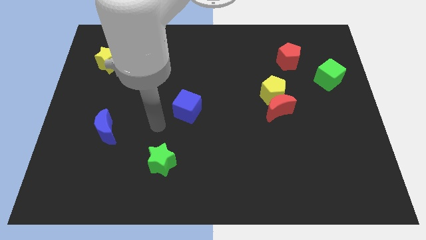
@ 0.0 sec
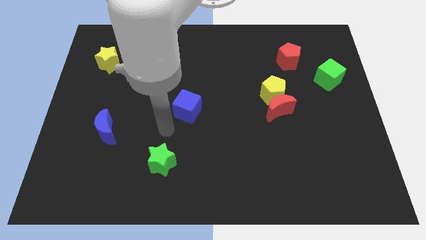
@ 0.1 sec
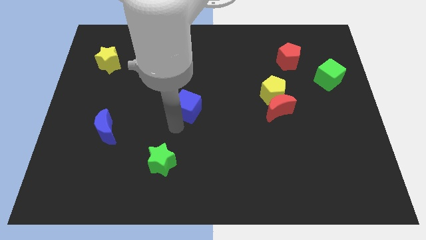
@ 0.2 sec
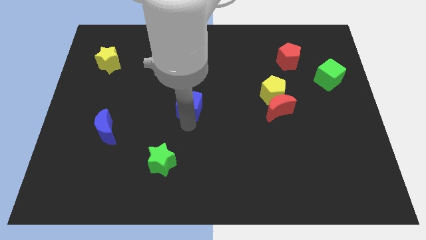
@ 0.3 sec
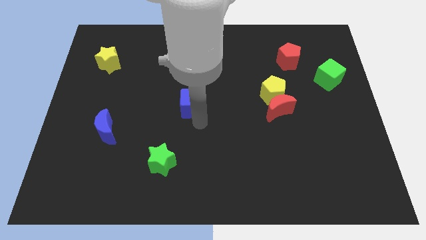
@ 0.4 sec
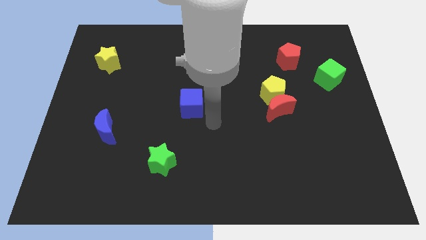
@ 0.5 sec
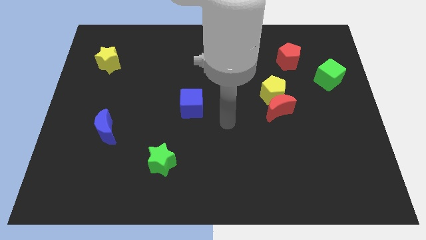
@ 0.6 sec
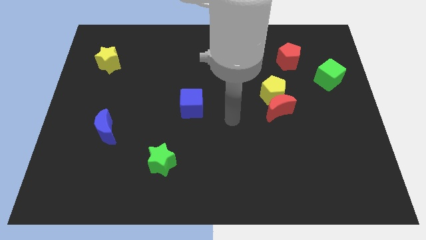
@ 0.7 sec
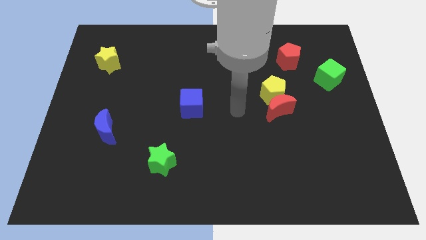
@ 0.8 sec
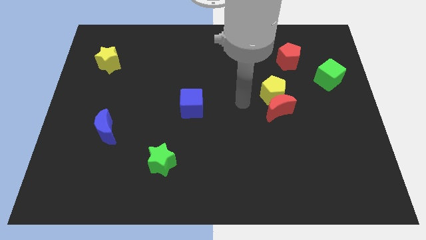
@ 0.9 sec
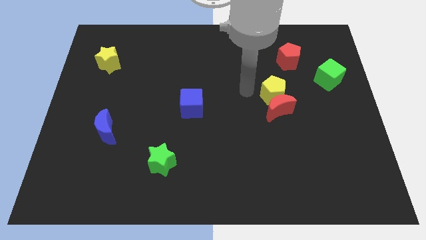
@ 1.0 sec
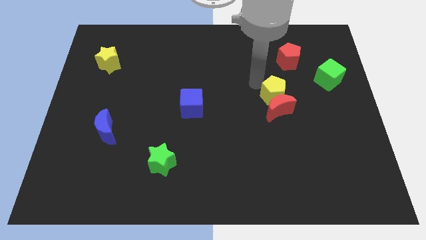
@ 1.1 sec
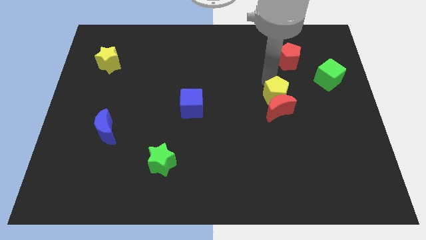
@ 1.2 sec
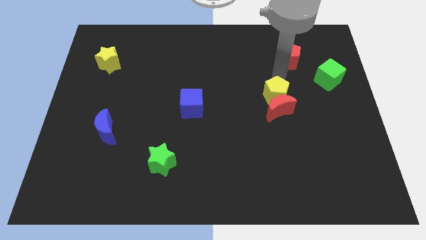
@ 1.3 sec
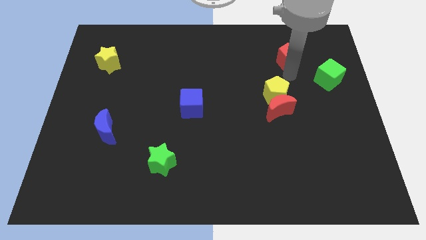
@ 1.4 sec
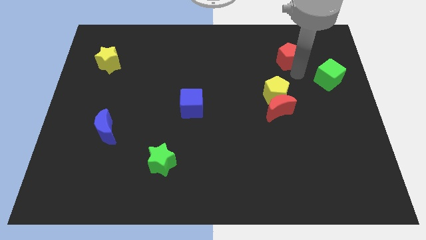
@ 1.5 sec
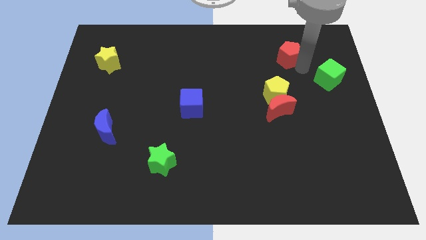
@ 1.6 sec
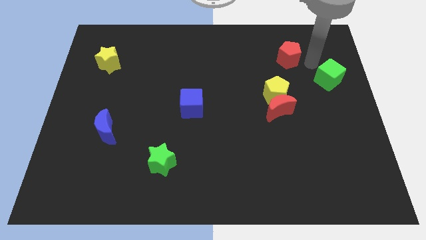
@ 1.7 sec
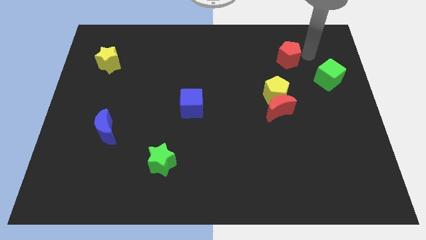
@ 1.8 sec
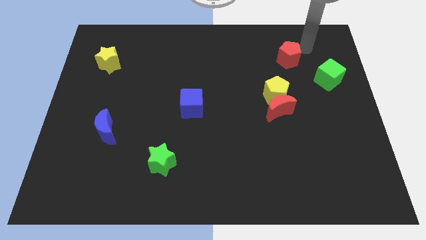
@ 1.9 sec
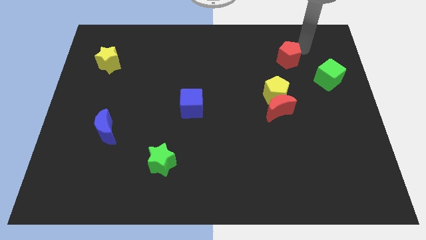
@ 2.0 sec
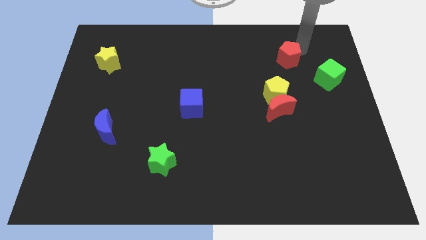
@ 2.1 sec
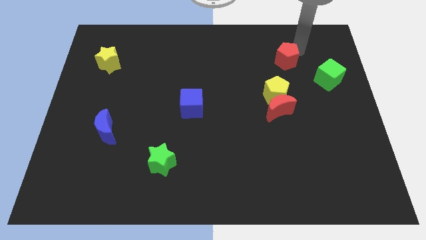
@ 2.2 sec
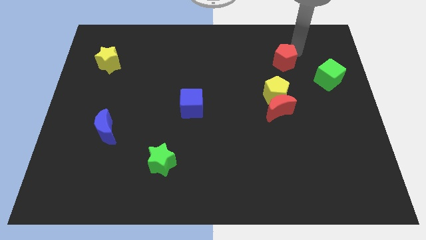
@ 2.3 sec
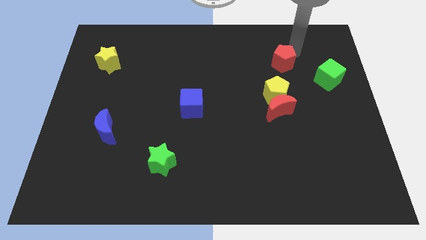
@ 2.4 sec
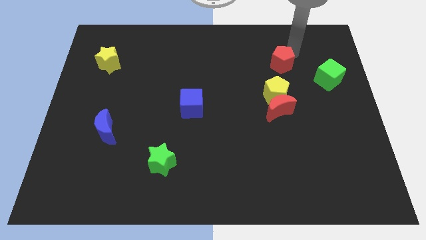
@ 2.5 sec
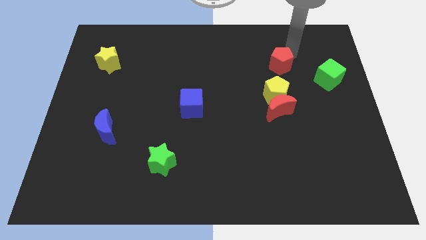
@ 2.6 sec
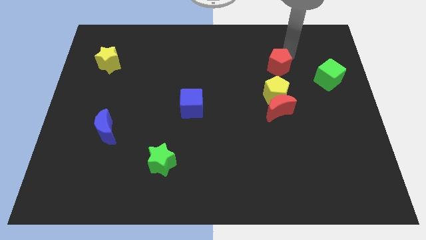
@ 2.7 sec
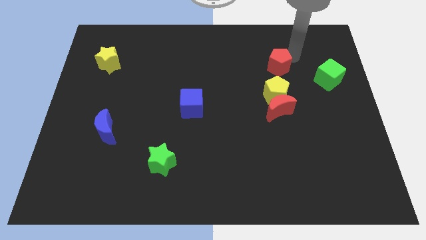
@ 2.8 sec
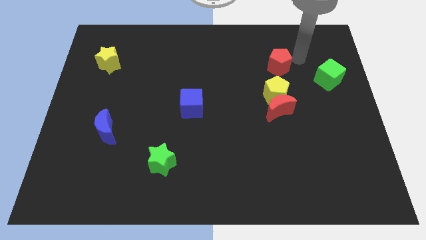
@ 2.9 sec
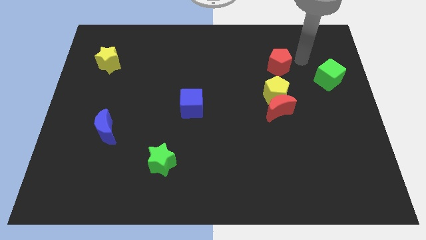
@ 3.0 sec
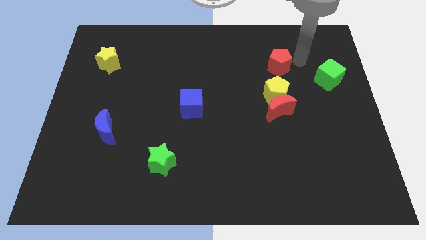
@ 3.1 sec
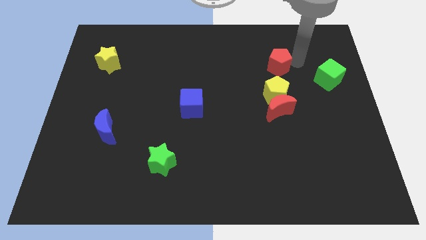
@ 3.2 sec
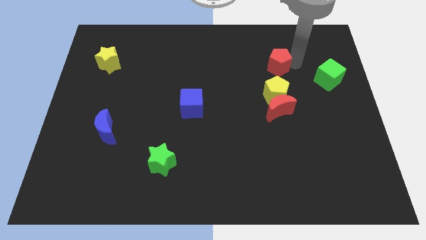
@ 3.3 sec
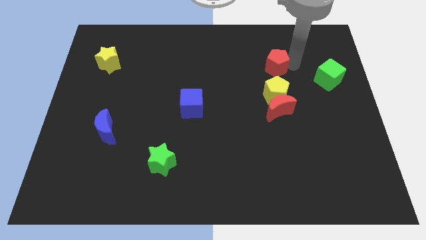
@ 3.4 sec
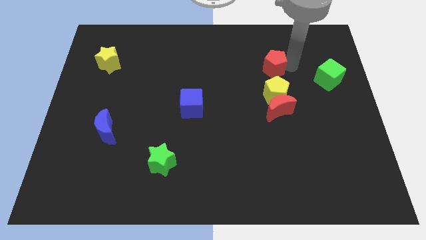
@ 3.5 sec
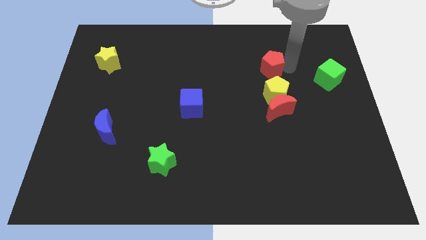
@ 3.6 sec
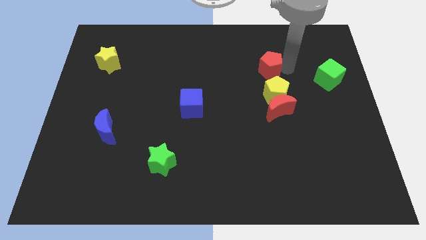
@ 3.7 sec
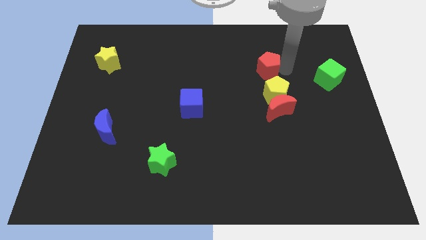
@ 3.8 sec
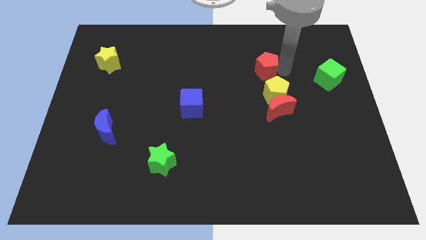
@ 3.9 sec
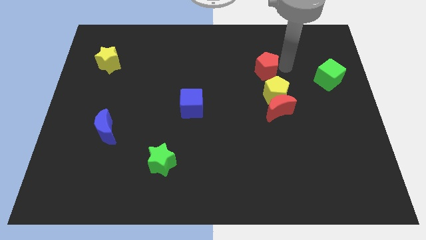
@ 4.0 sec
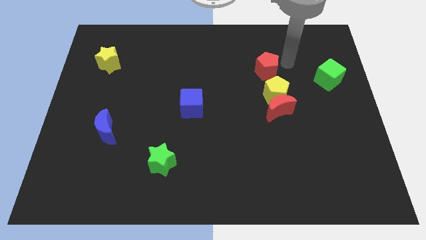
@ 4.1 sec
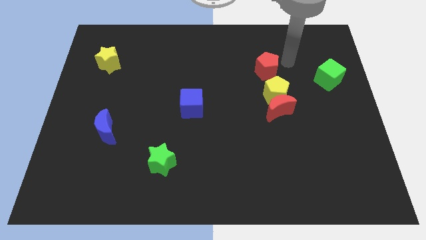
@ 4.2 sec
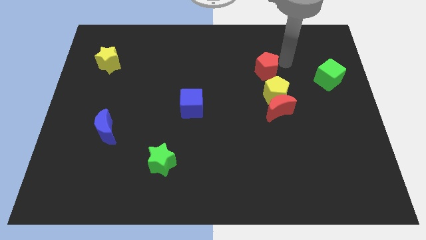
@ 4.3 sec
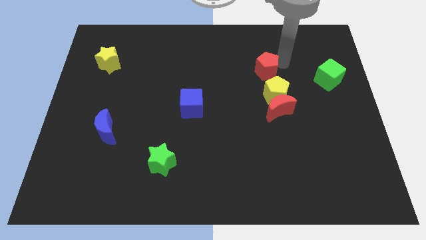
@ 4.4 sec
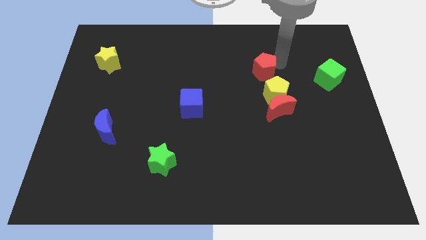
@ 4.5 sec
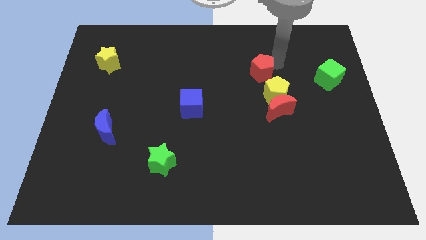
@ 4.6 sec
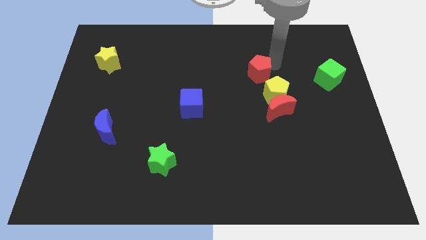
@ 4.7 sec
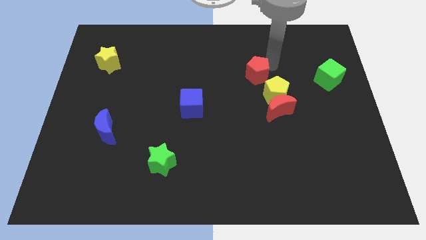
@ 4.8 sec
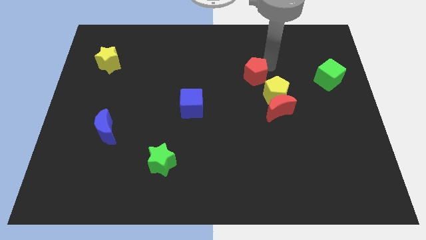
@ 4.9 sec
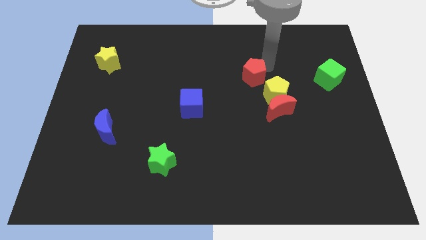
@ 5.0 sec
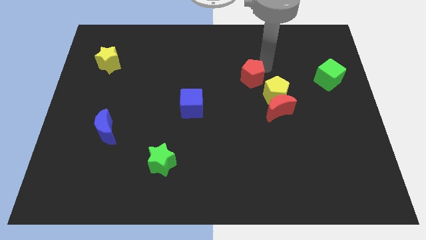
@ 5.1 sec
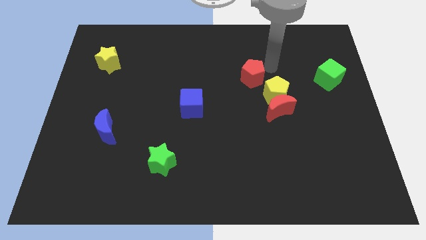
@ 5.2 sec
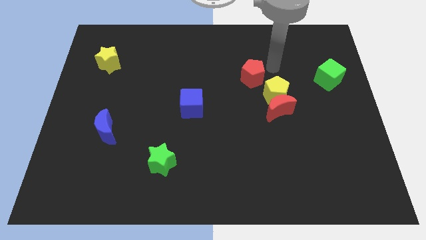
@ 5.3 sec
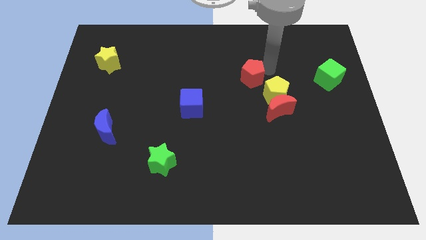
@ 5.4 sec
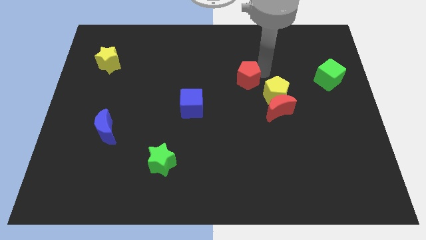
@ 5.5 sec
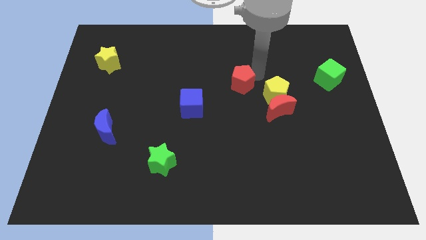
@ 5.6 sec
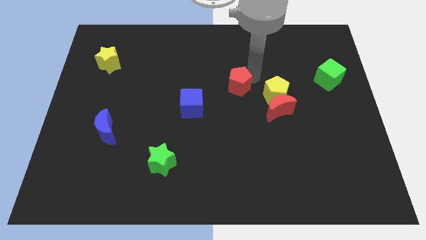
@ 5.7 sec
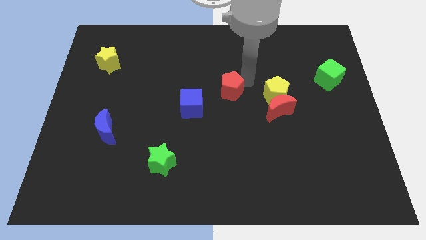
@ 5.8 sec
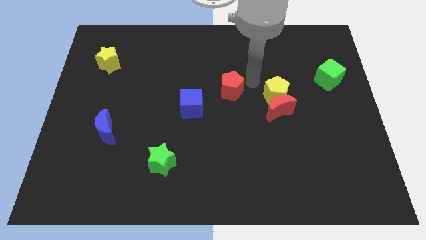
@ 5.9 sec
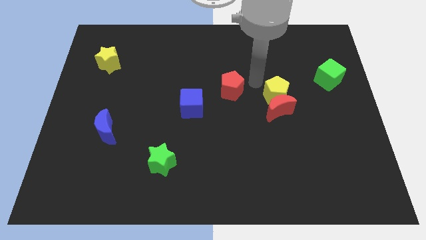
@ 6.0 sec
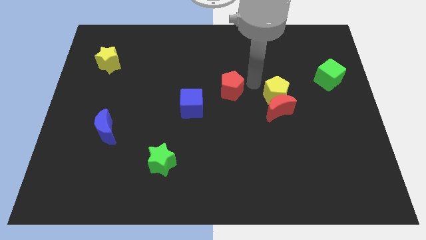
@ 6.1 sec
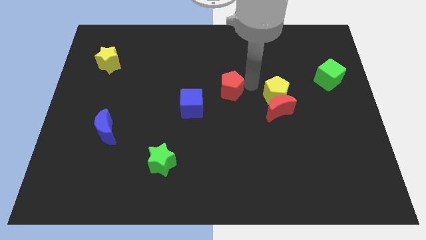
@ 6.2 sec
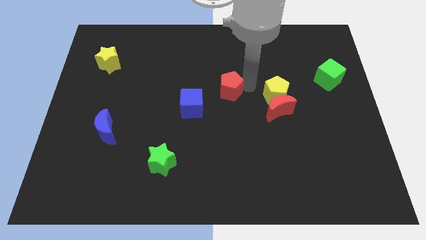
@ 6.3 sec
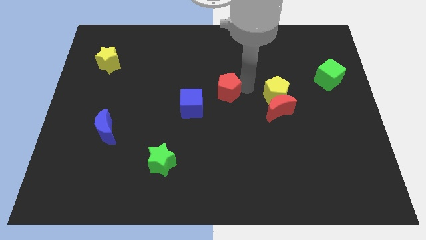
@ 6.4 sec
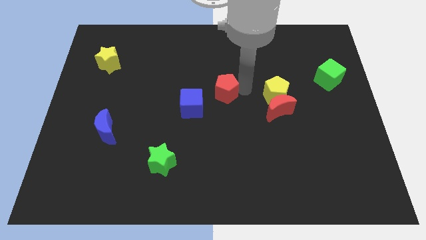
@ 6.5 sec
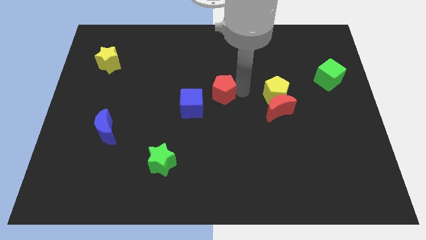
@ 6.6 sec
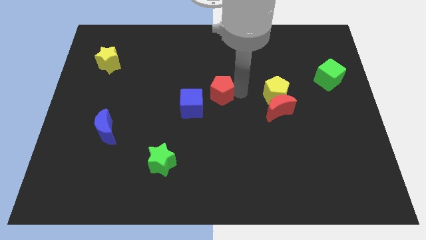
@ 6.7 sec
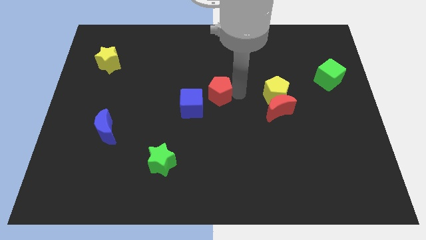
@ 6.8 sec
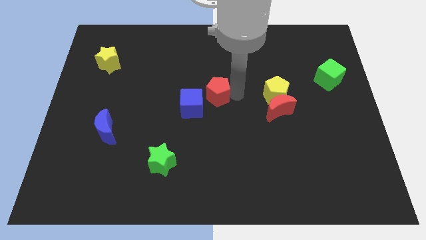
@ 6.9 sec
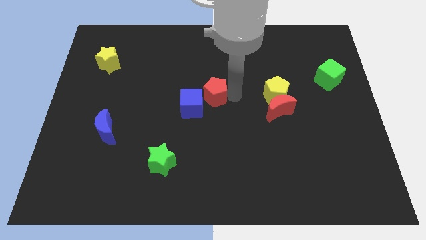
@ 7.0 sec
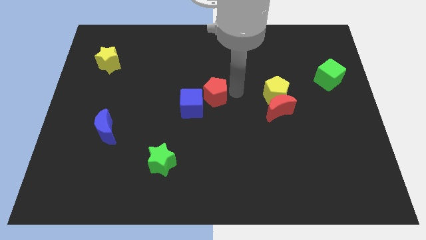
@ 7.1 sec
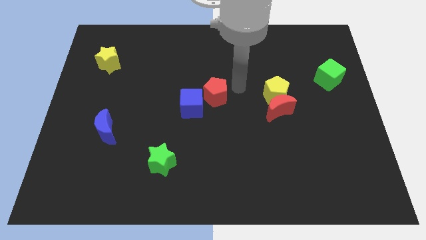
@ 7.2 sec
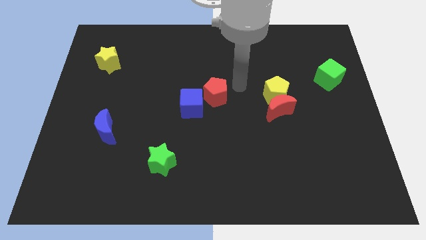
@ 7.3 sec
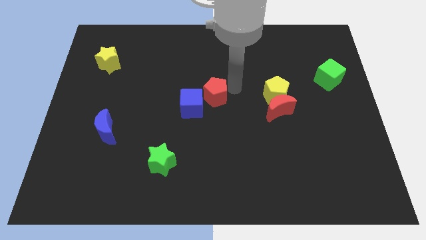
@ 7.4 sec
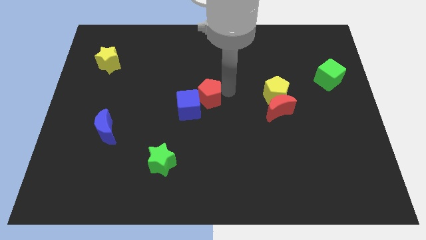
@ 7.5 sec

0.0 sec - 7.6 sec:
push the red pentagon towards the blue cube
